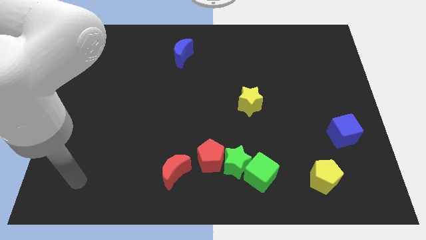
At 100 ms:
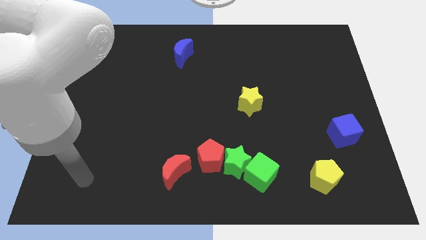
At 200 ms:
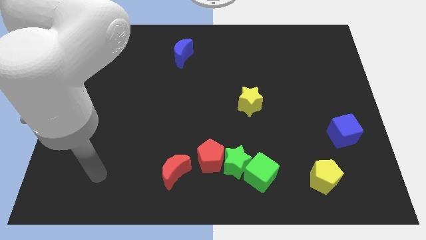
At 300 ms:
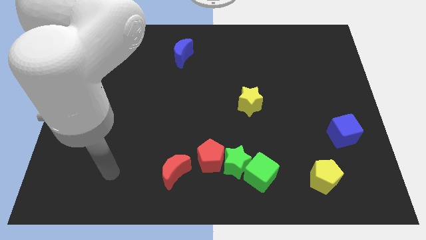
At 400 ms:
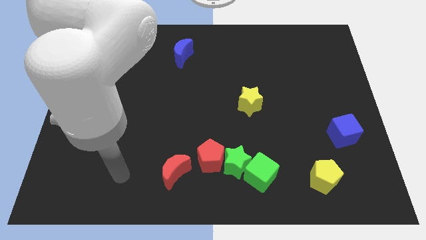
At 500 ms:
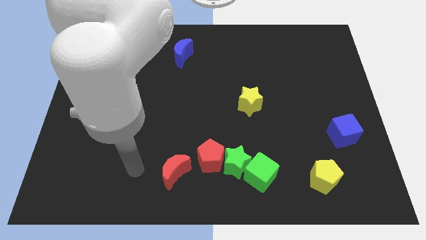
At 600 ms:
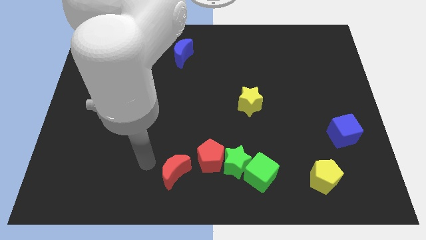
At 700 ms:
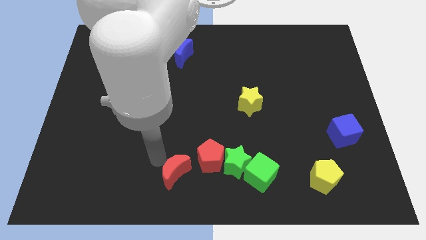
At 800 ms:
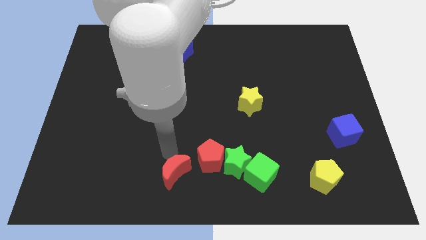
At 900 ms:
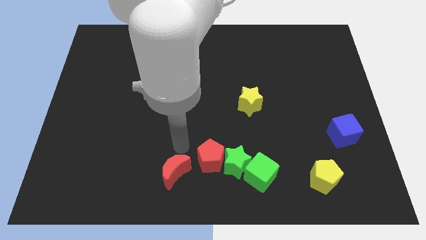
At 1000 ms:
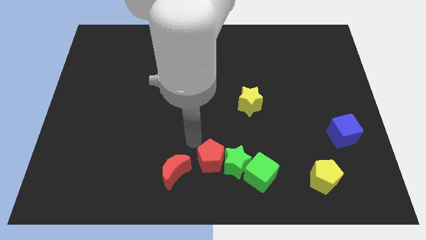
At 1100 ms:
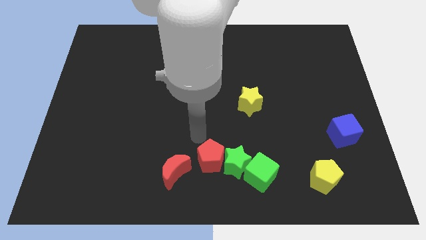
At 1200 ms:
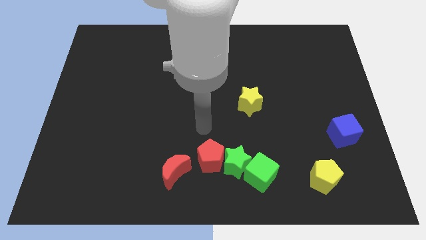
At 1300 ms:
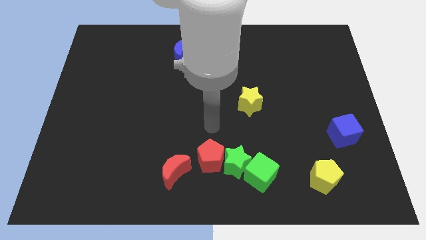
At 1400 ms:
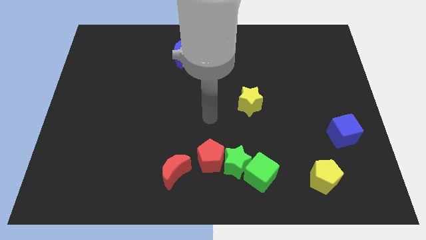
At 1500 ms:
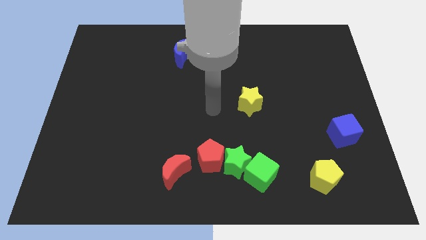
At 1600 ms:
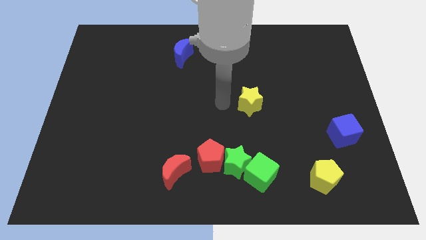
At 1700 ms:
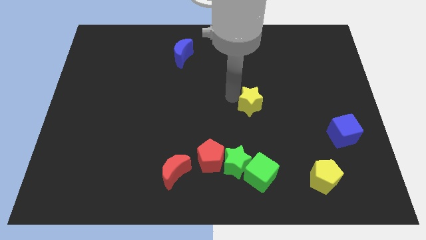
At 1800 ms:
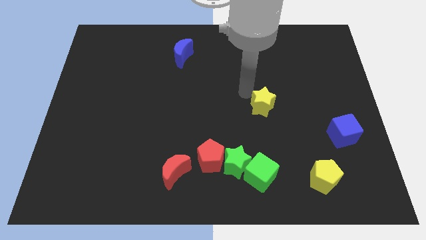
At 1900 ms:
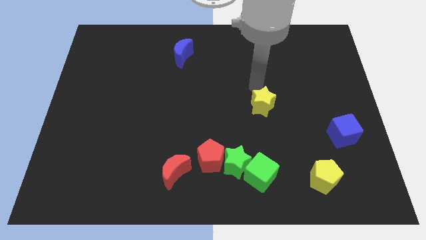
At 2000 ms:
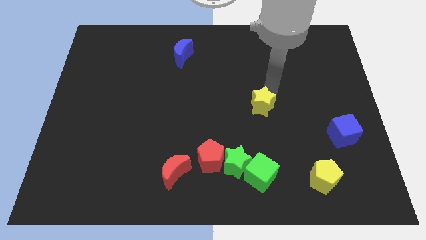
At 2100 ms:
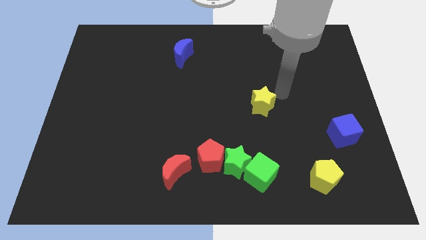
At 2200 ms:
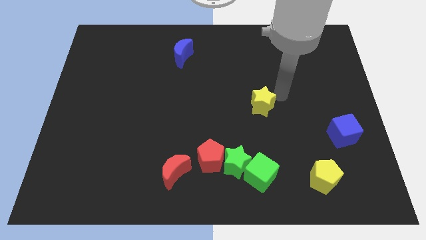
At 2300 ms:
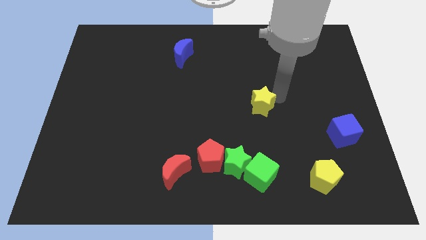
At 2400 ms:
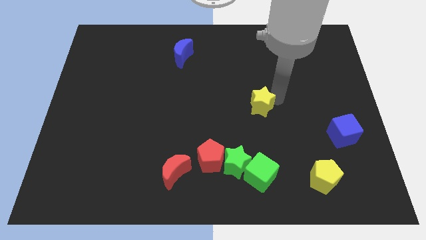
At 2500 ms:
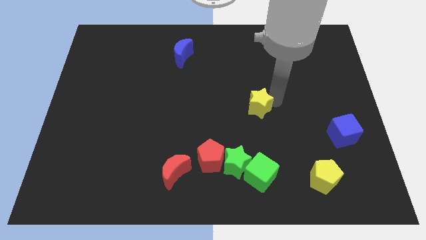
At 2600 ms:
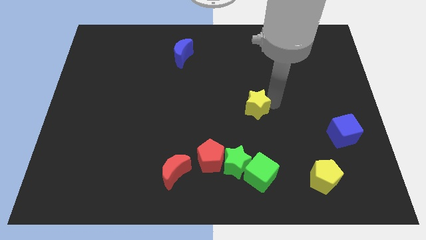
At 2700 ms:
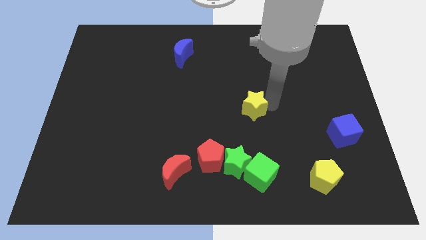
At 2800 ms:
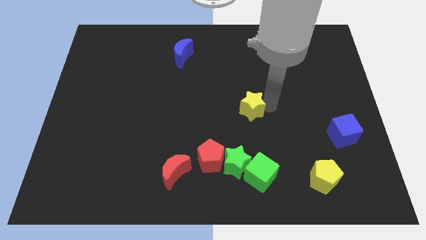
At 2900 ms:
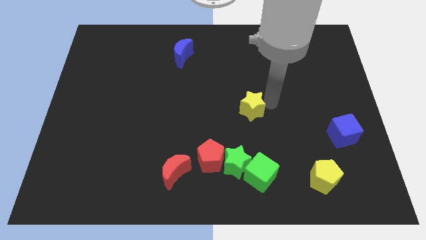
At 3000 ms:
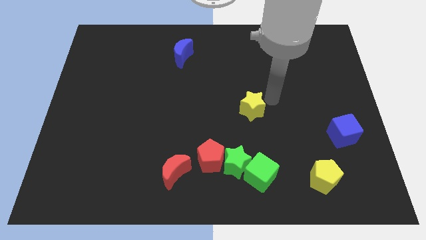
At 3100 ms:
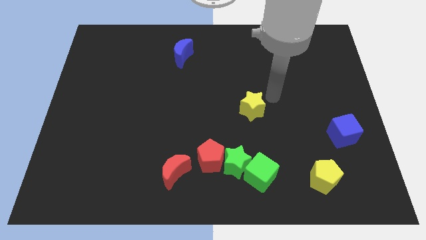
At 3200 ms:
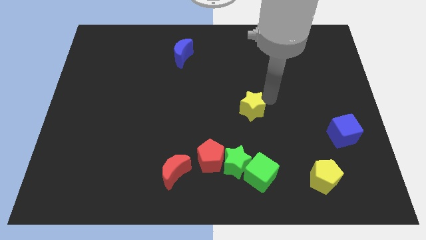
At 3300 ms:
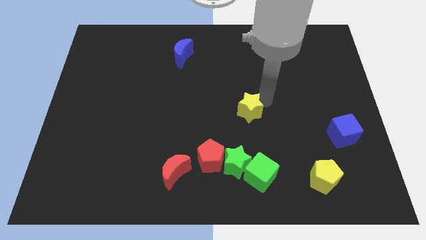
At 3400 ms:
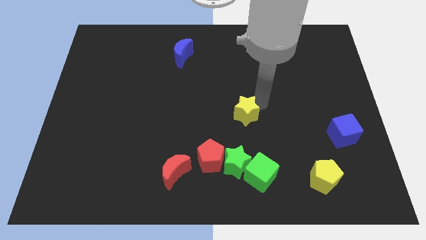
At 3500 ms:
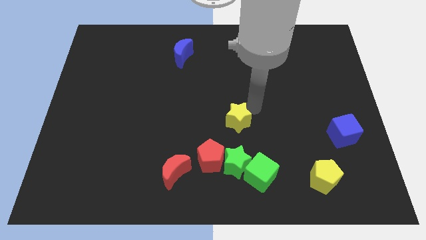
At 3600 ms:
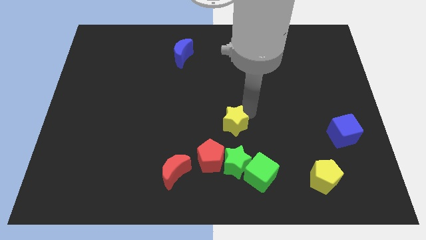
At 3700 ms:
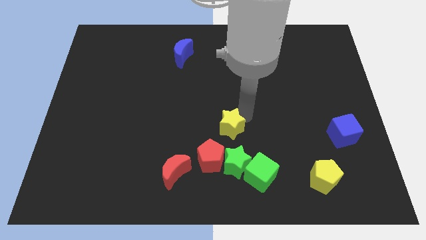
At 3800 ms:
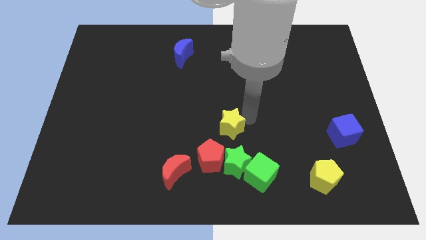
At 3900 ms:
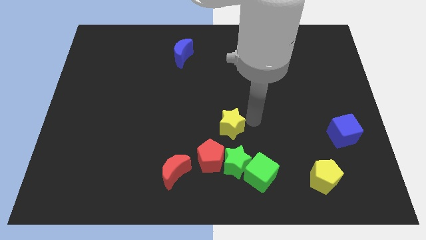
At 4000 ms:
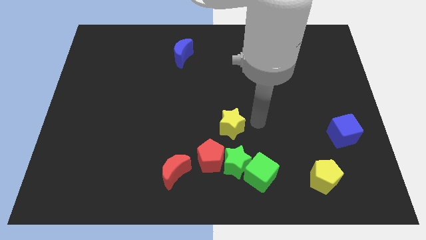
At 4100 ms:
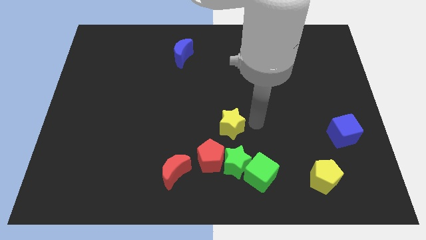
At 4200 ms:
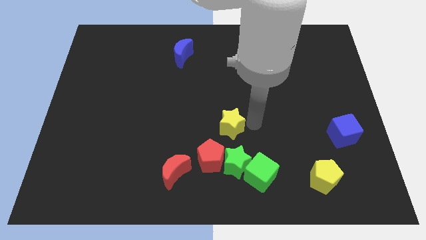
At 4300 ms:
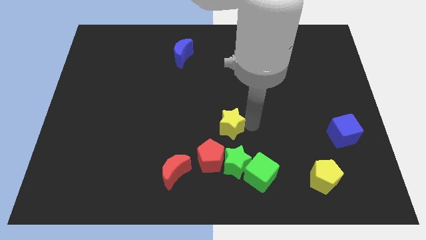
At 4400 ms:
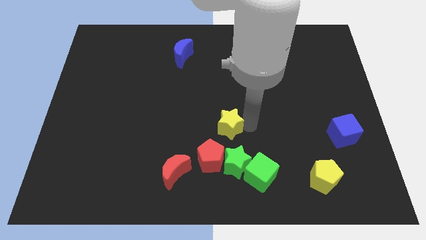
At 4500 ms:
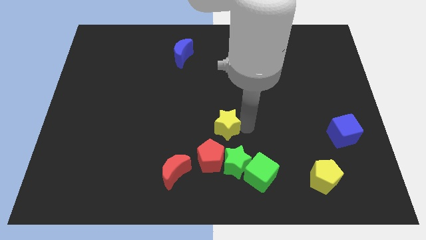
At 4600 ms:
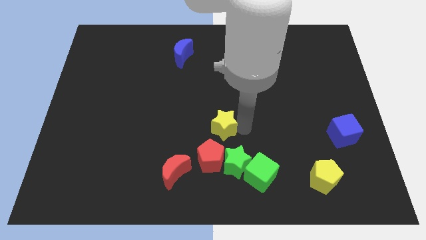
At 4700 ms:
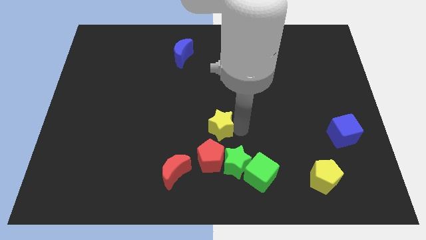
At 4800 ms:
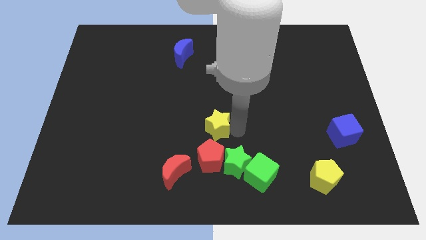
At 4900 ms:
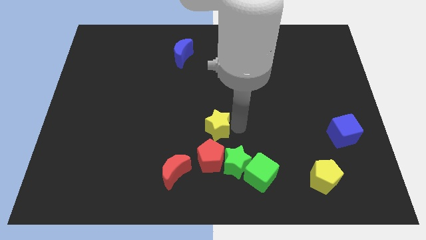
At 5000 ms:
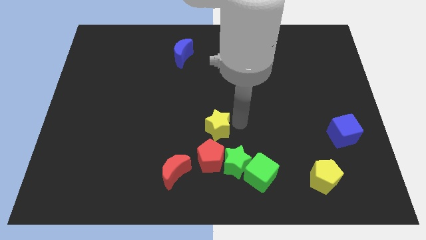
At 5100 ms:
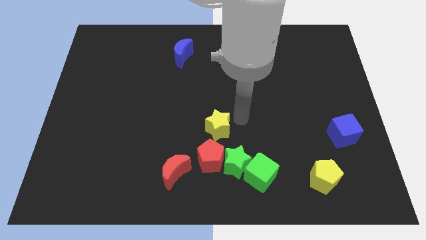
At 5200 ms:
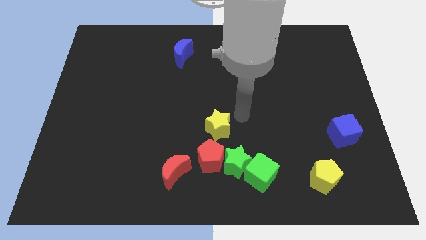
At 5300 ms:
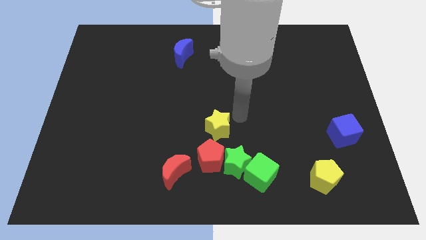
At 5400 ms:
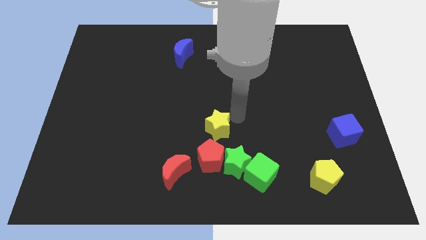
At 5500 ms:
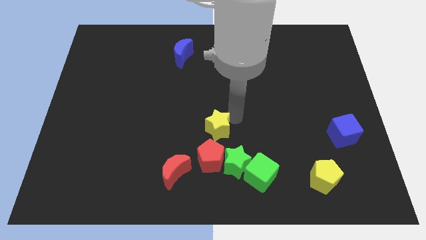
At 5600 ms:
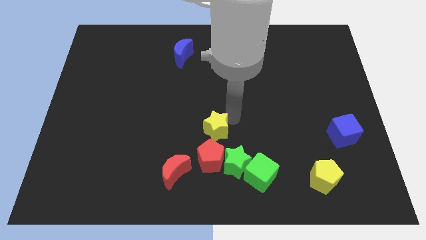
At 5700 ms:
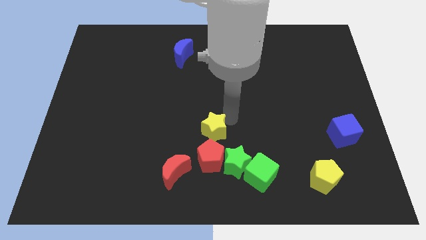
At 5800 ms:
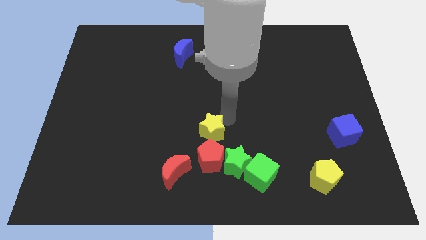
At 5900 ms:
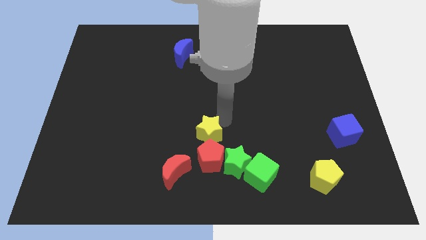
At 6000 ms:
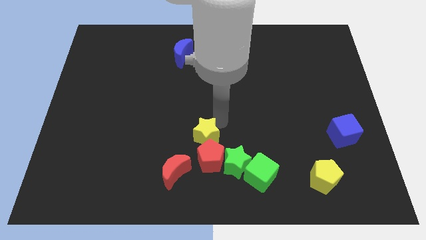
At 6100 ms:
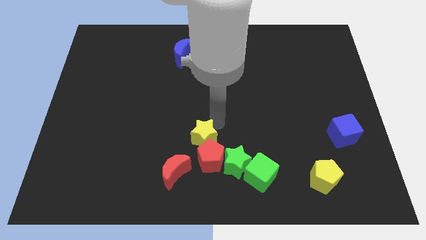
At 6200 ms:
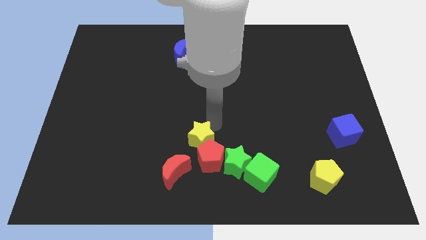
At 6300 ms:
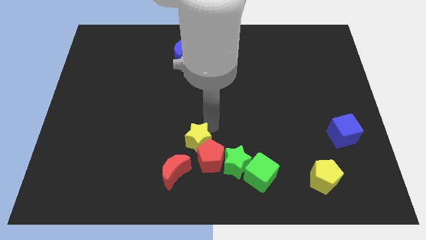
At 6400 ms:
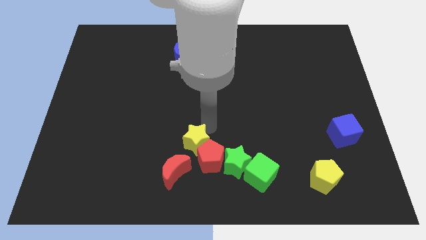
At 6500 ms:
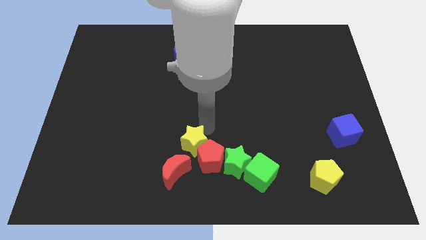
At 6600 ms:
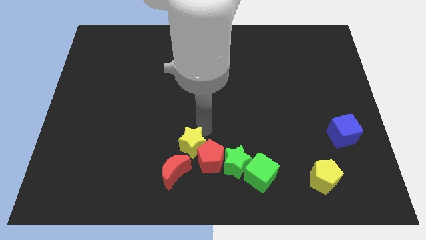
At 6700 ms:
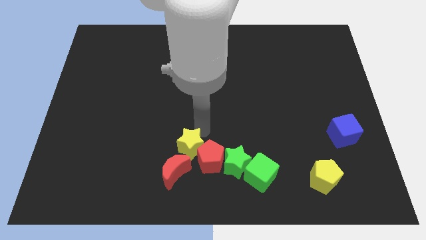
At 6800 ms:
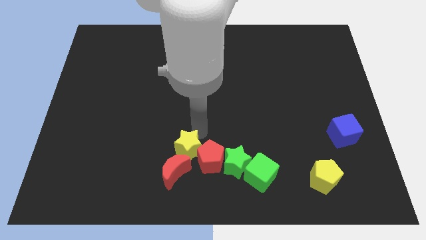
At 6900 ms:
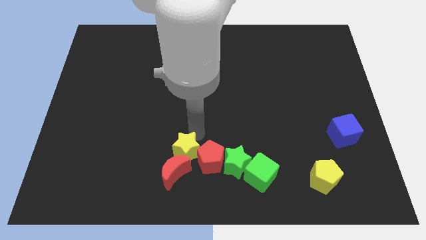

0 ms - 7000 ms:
move the yellow star towards the red moon
